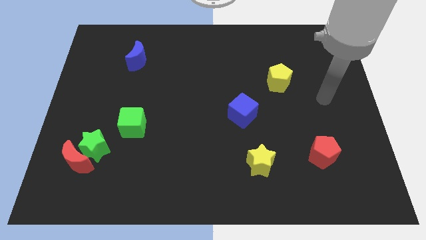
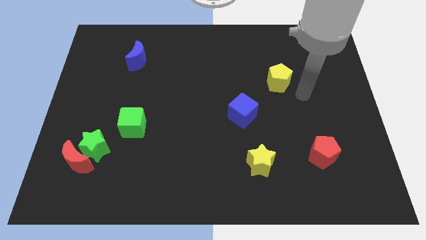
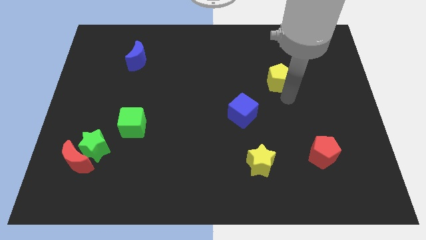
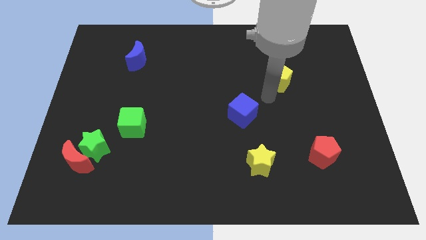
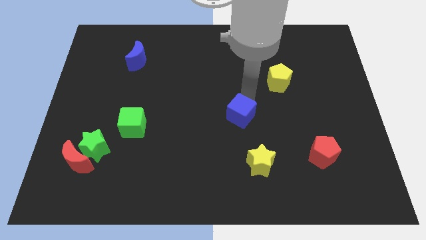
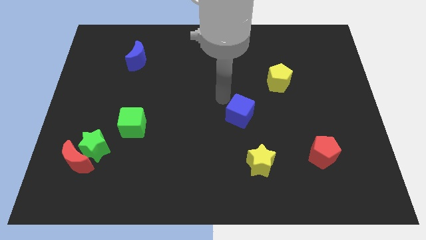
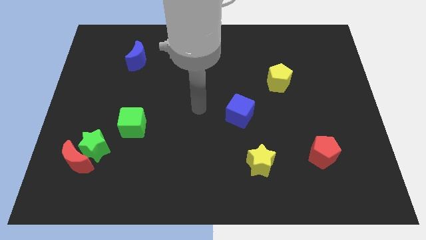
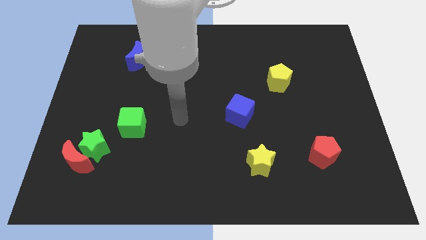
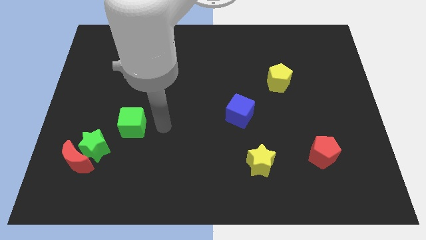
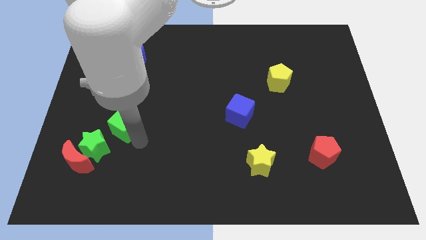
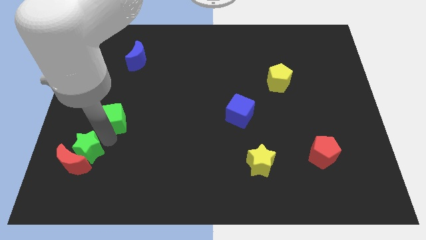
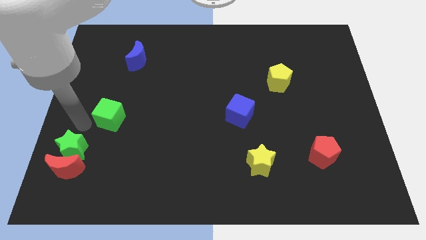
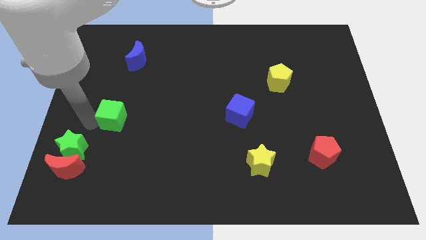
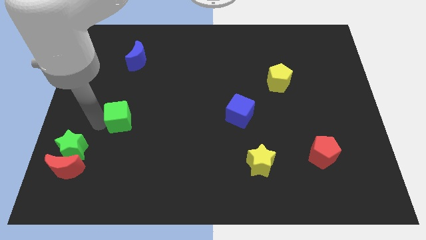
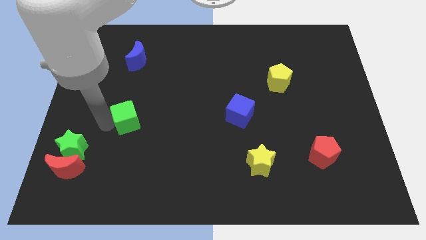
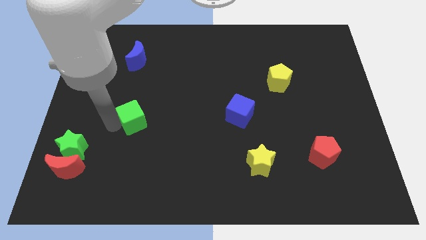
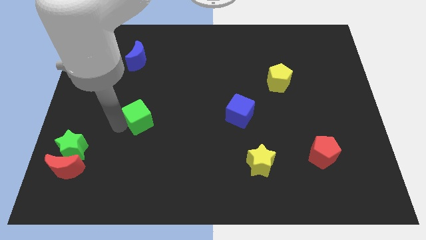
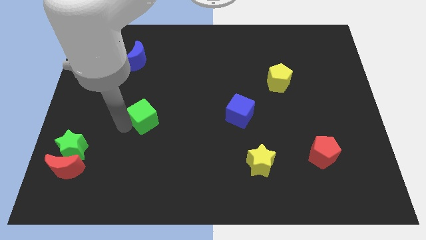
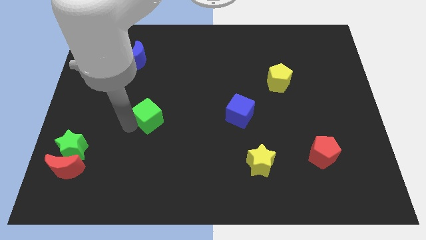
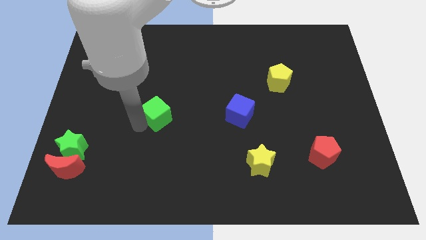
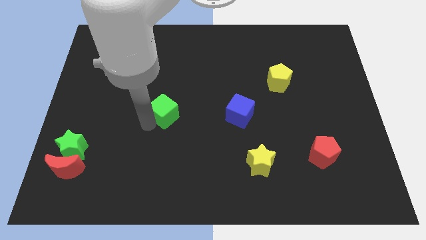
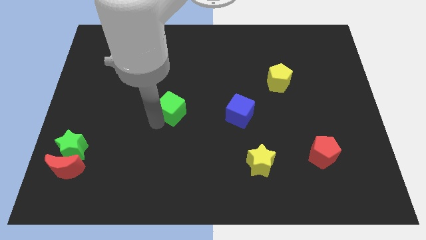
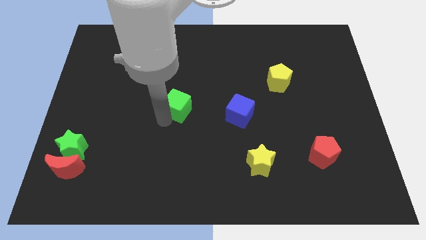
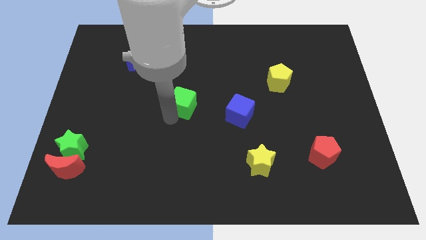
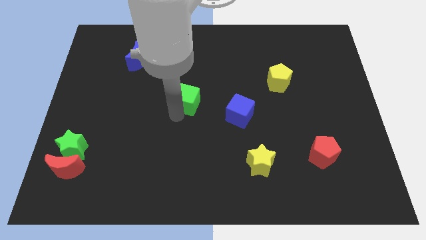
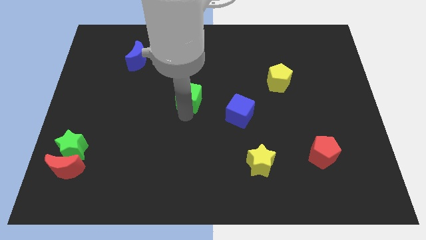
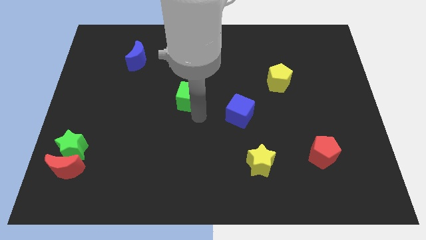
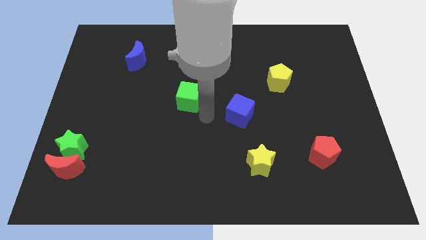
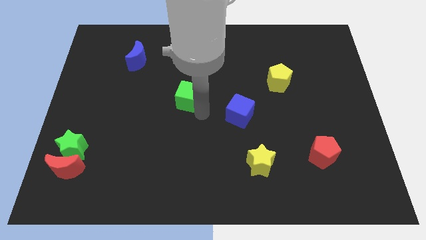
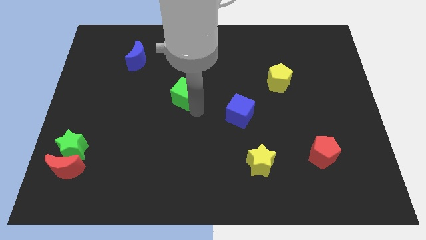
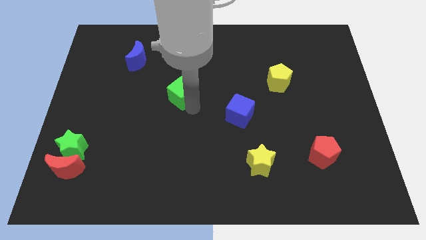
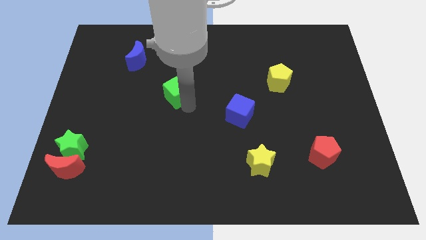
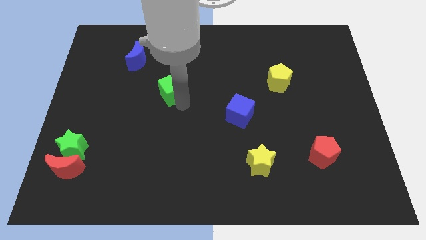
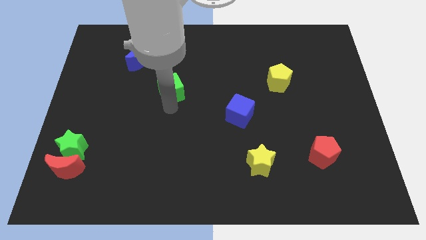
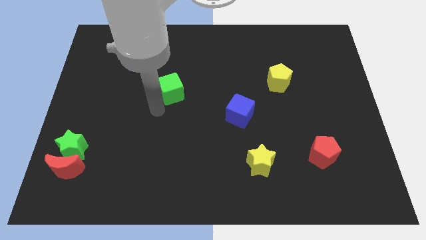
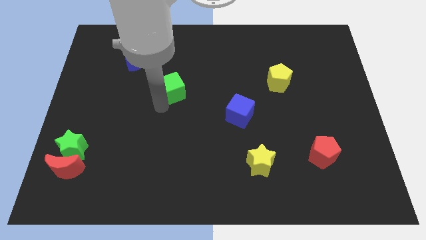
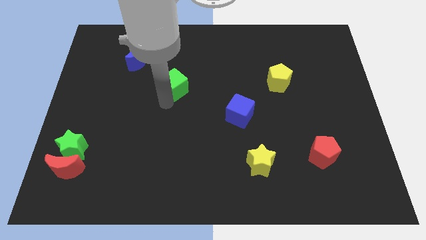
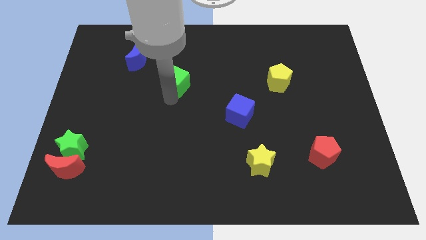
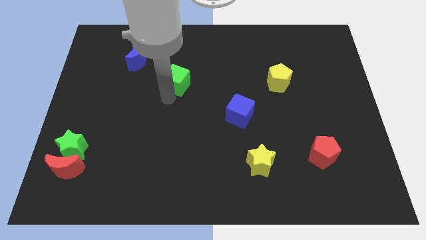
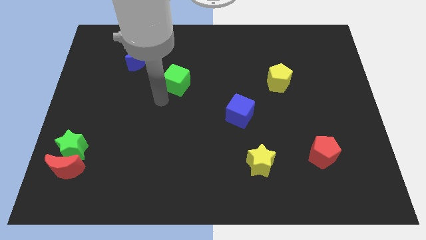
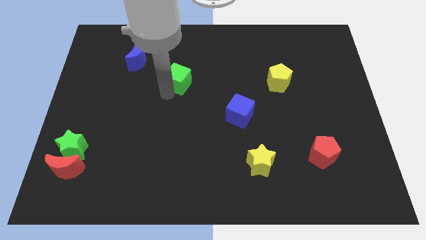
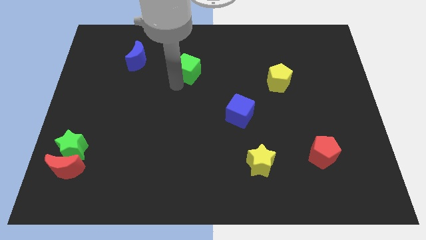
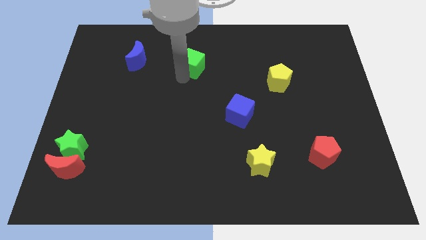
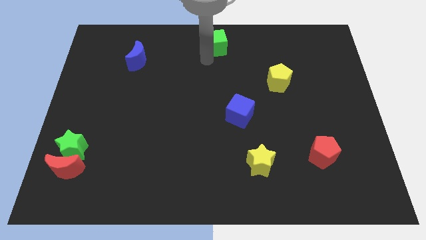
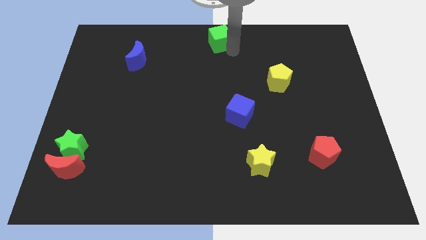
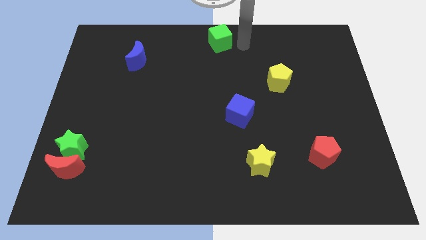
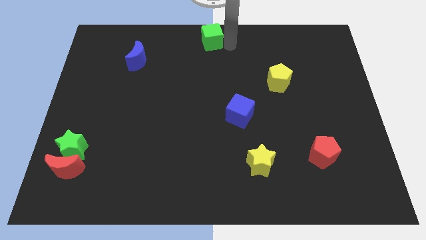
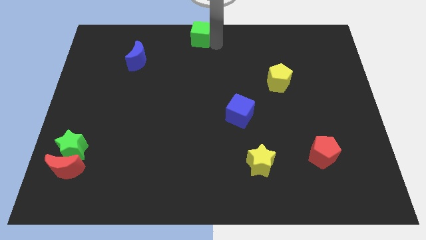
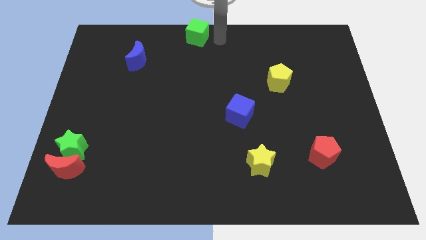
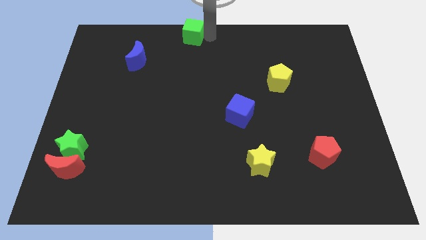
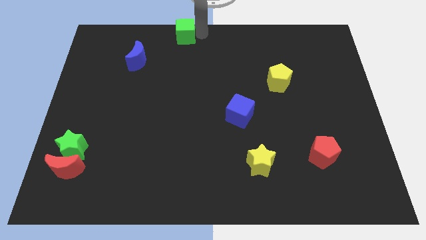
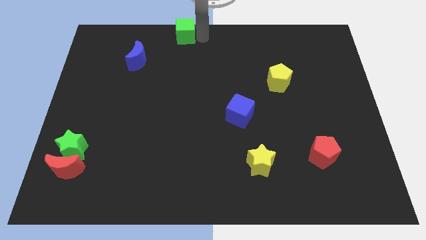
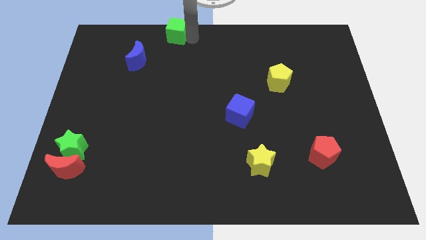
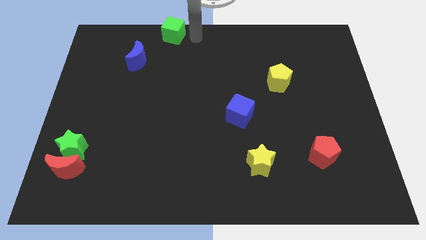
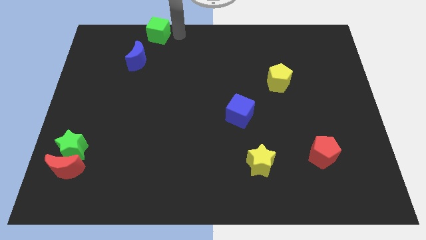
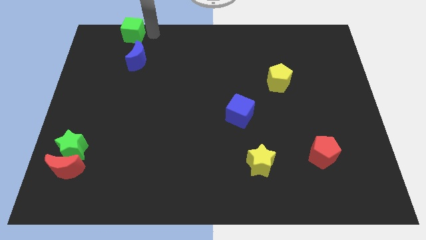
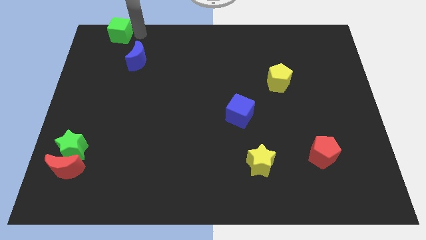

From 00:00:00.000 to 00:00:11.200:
move the green cube to the top left
